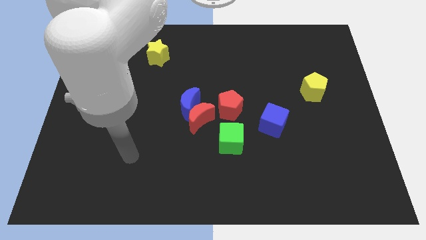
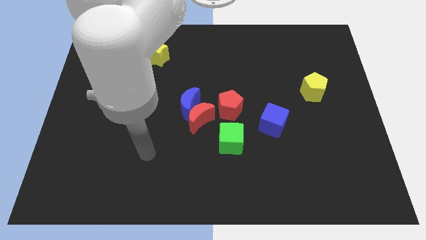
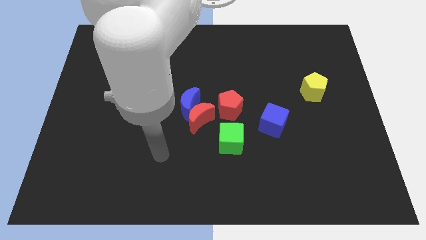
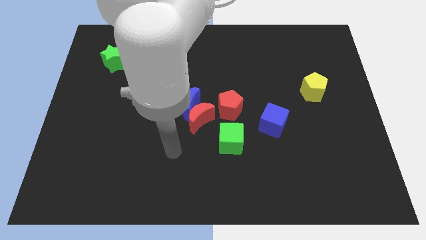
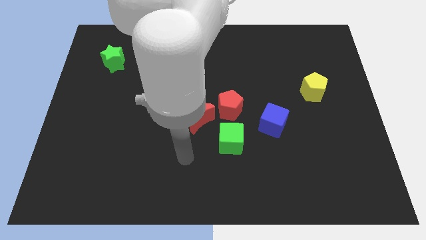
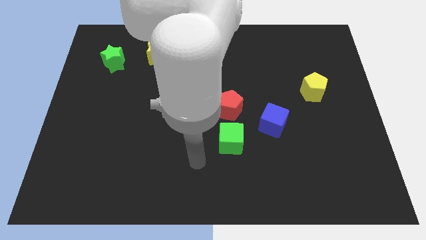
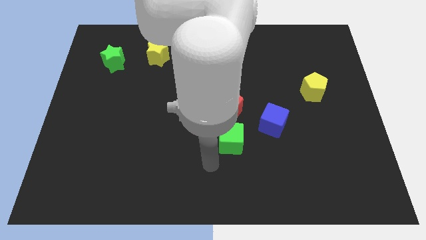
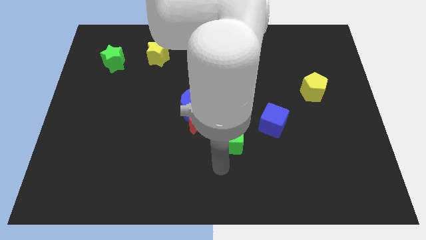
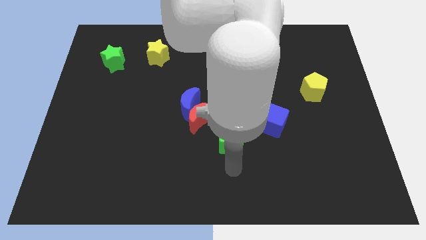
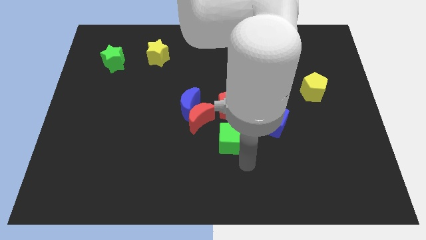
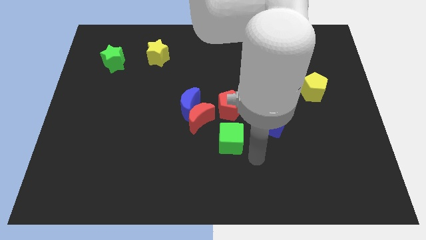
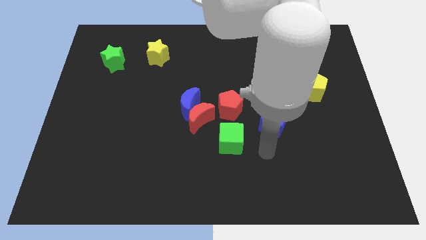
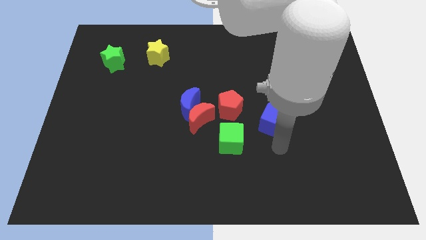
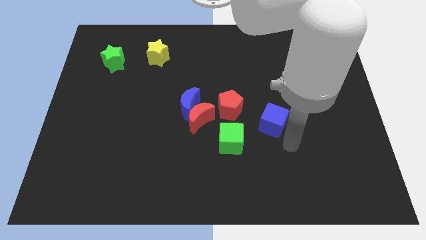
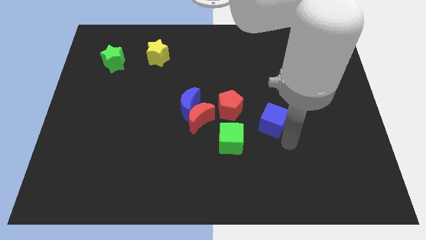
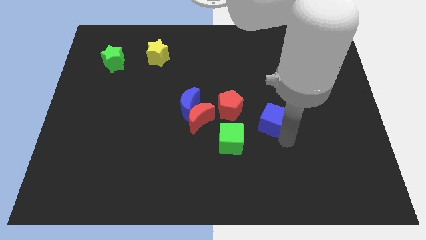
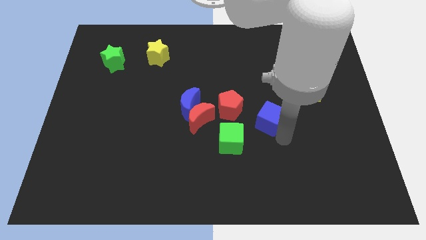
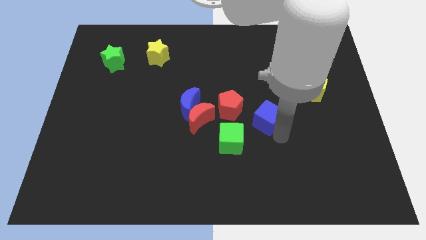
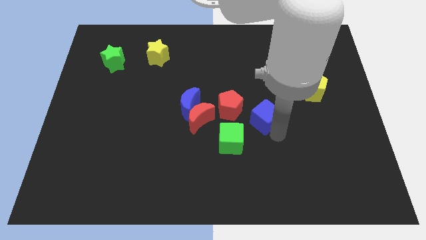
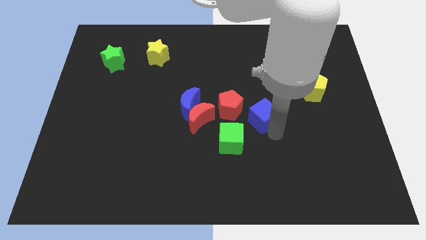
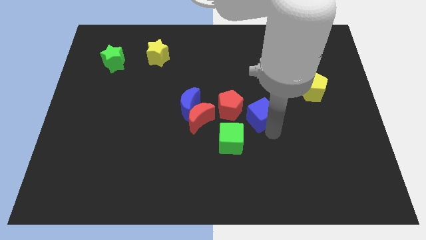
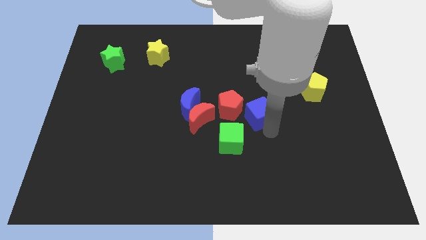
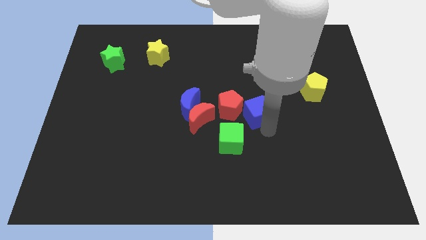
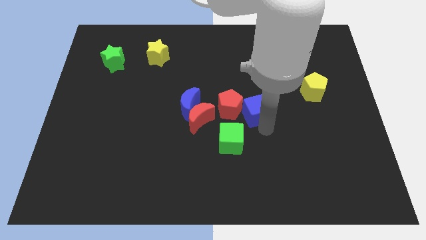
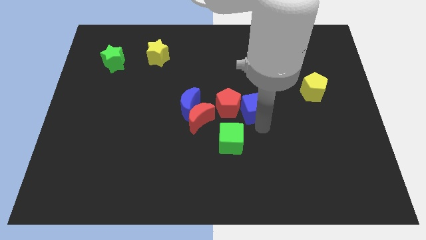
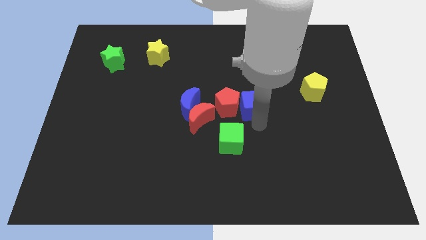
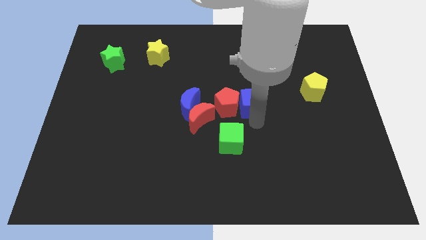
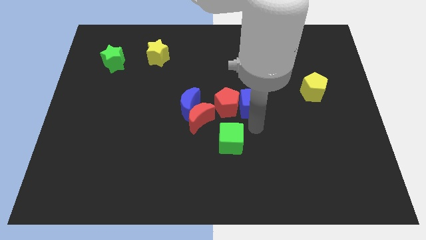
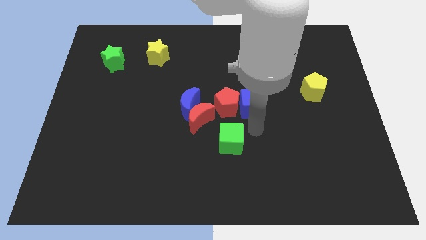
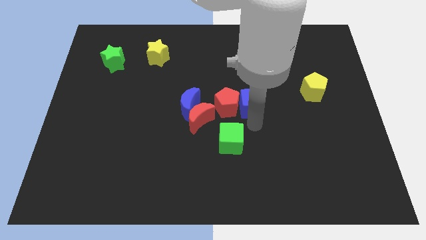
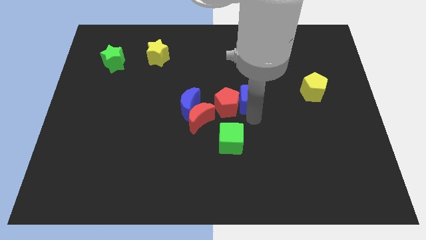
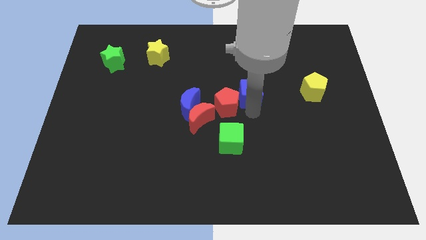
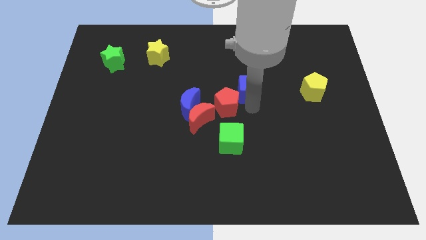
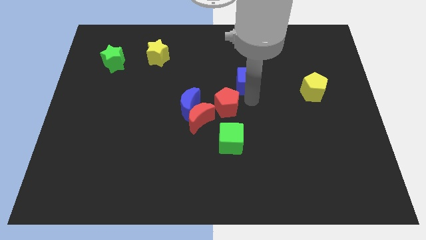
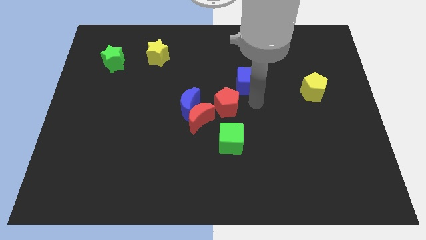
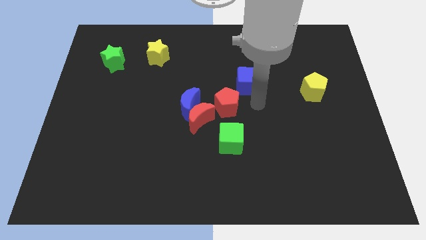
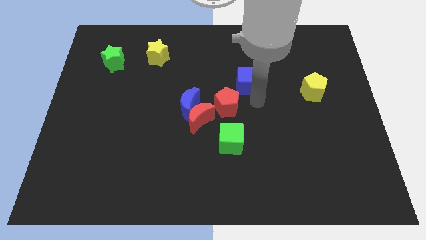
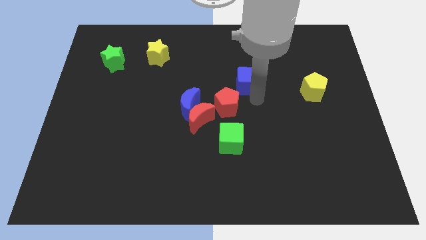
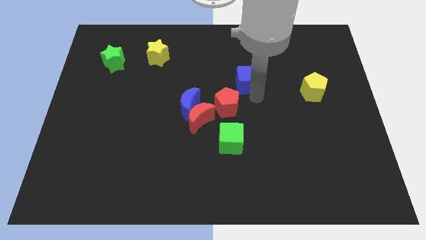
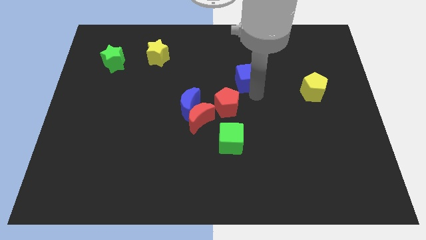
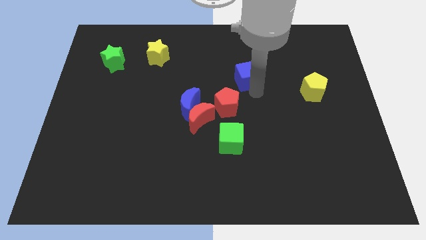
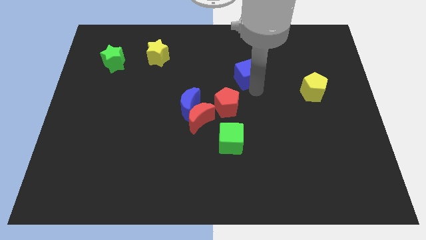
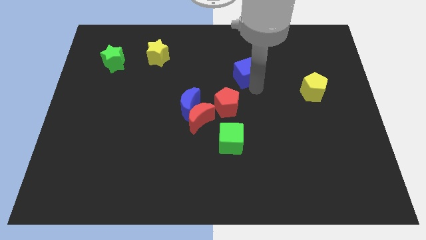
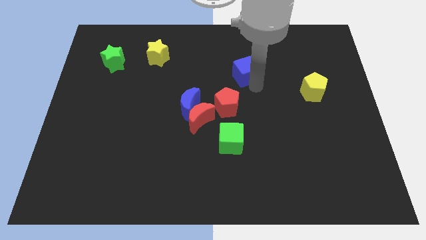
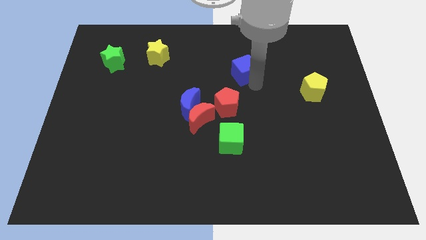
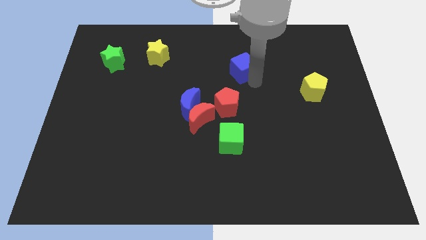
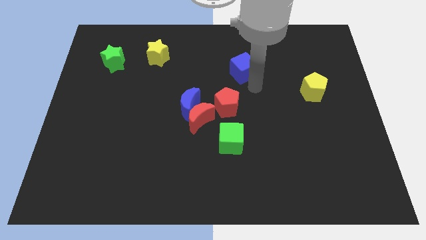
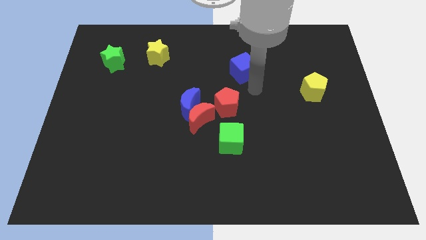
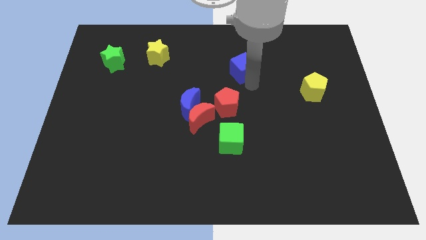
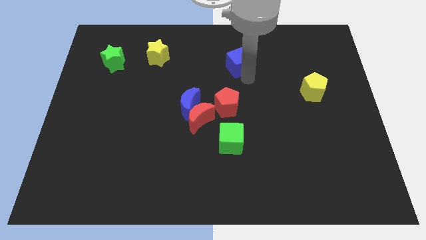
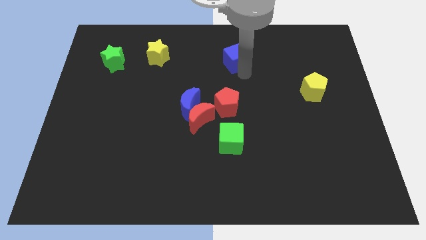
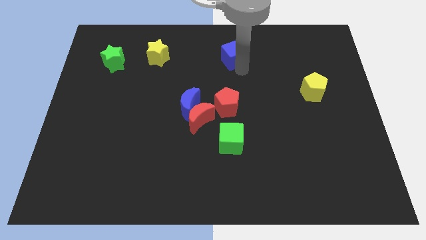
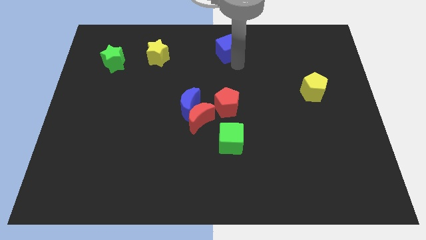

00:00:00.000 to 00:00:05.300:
push the blue cube to the top
